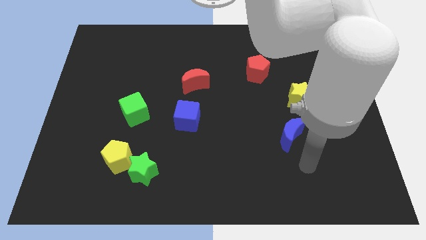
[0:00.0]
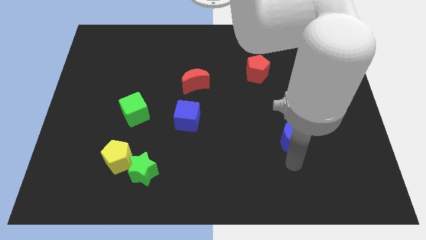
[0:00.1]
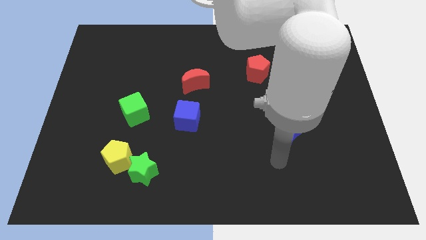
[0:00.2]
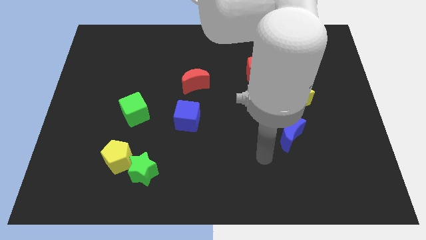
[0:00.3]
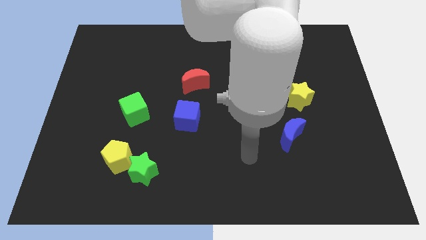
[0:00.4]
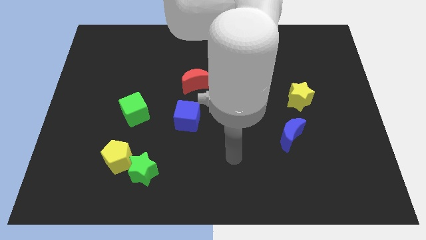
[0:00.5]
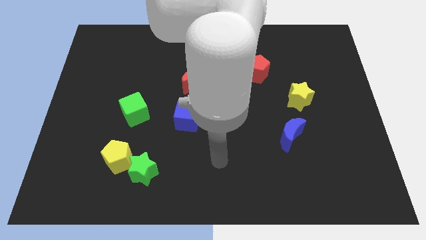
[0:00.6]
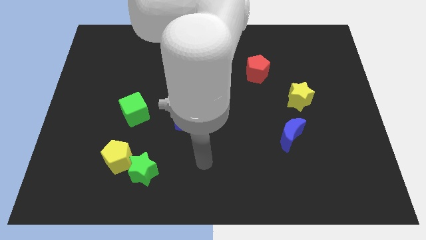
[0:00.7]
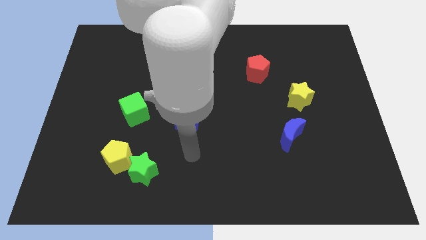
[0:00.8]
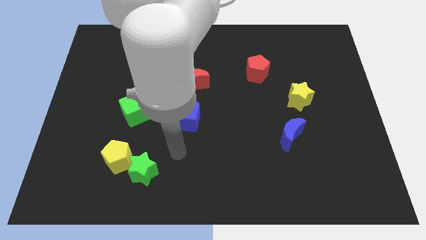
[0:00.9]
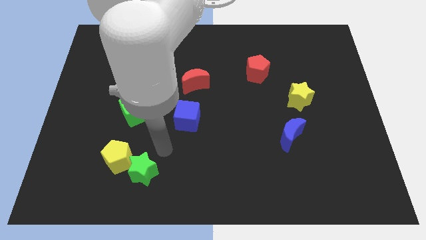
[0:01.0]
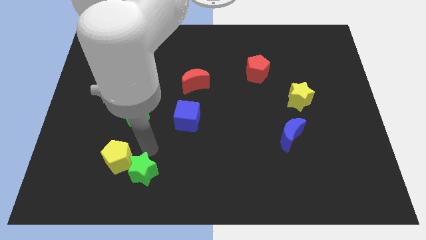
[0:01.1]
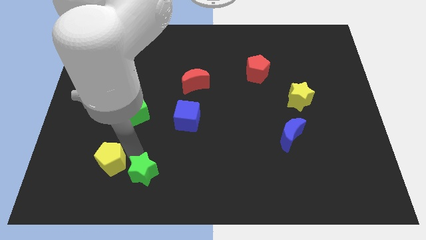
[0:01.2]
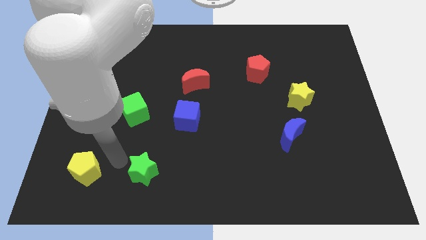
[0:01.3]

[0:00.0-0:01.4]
separate the green star from the yellow pentagon

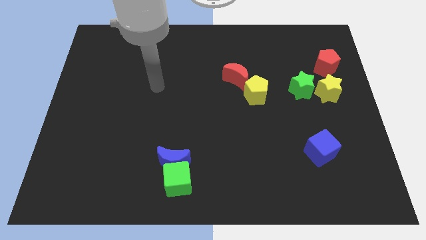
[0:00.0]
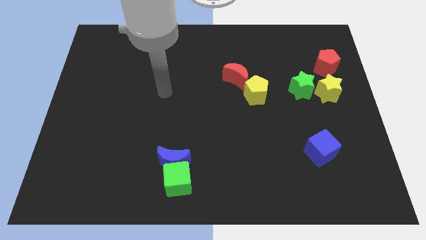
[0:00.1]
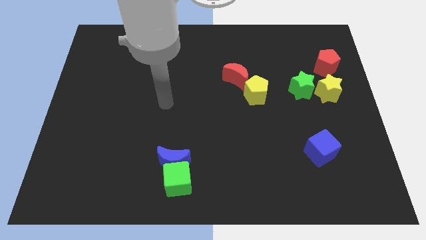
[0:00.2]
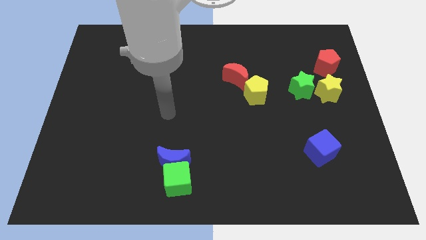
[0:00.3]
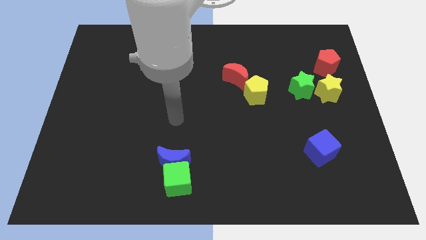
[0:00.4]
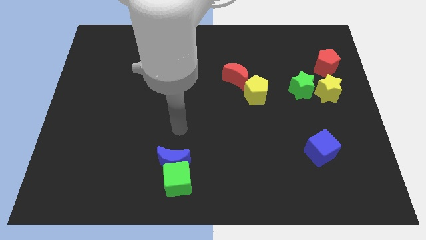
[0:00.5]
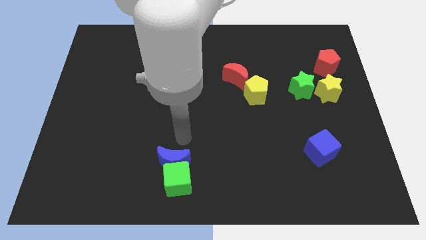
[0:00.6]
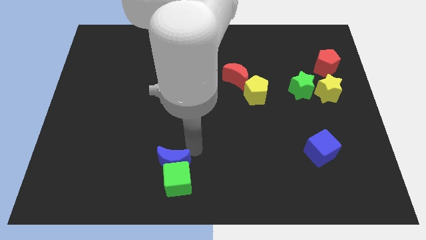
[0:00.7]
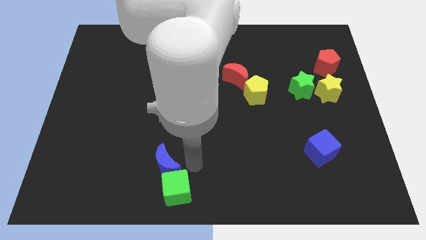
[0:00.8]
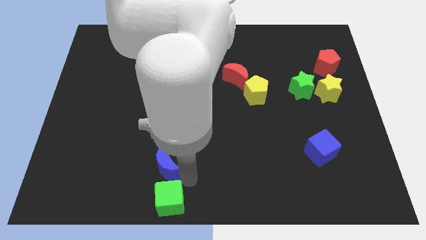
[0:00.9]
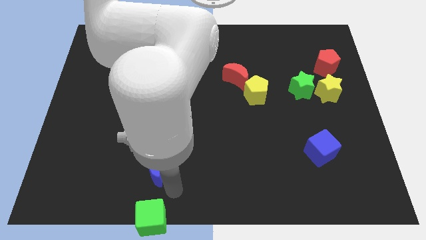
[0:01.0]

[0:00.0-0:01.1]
separate the blue moon from the green cube

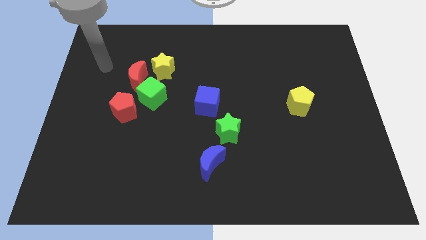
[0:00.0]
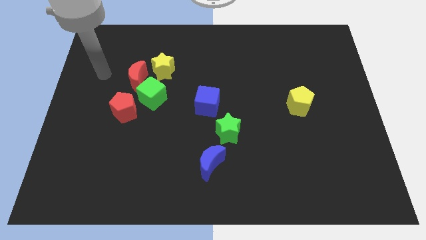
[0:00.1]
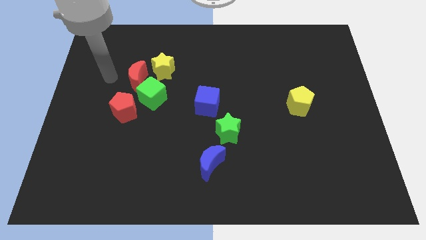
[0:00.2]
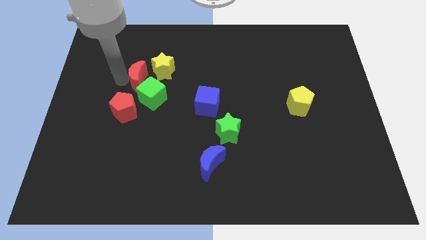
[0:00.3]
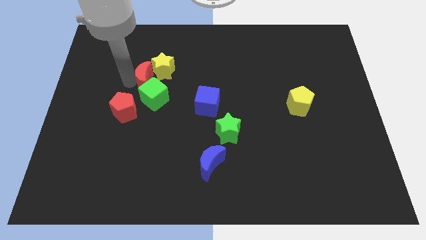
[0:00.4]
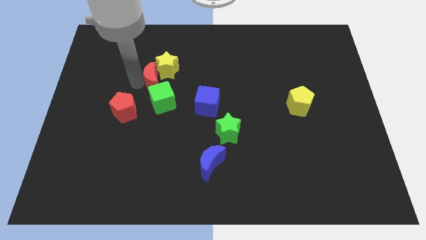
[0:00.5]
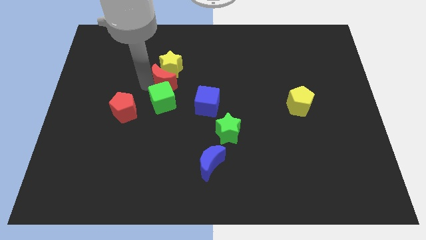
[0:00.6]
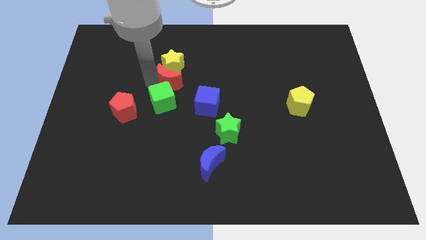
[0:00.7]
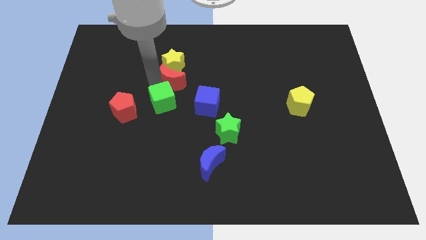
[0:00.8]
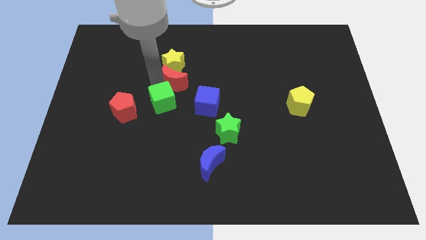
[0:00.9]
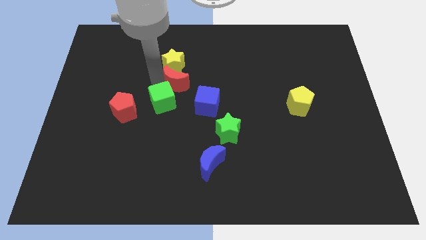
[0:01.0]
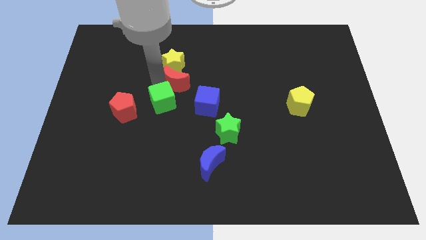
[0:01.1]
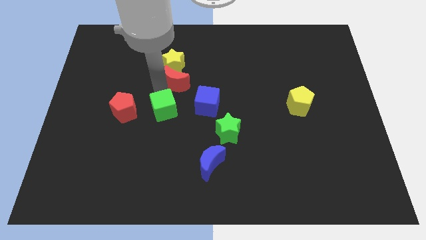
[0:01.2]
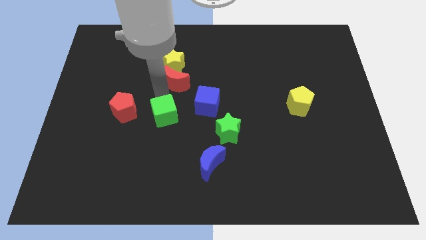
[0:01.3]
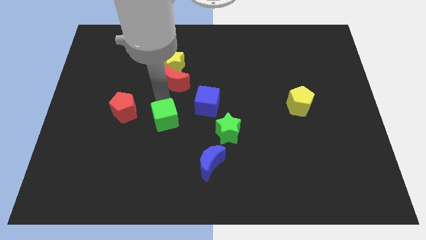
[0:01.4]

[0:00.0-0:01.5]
move the green cube away from the clump

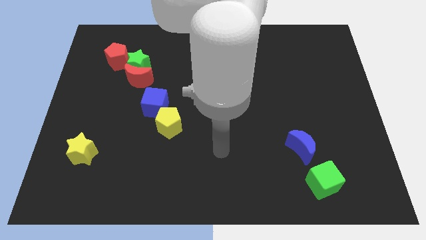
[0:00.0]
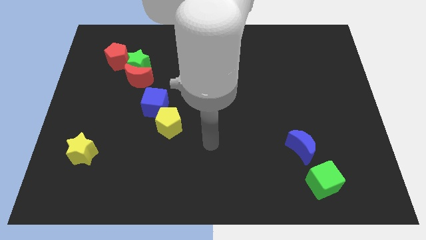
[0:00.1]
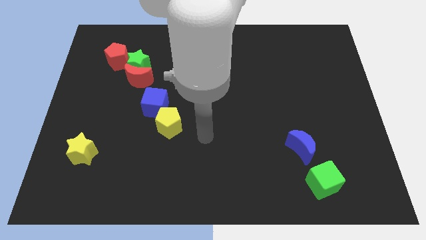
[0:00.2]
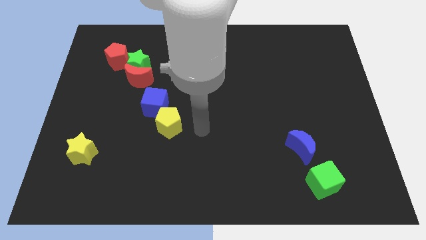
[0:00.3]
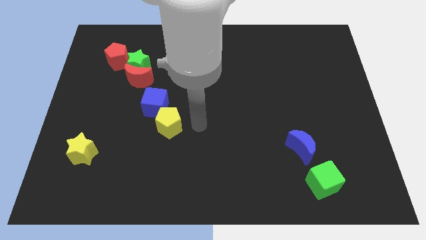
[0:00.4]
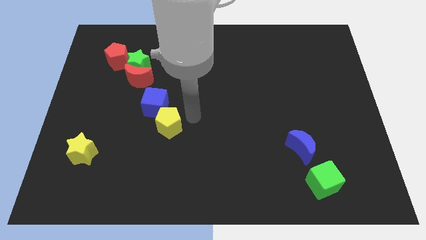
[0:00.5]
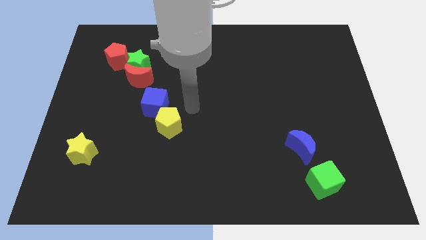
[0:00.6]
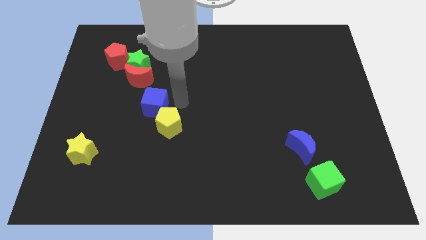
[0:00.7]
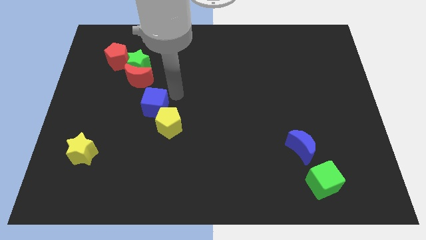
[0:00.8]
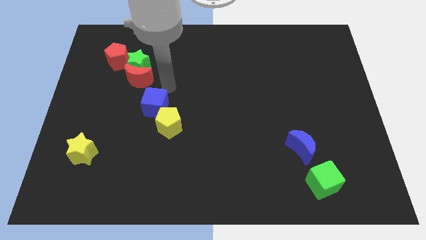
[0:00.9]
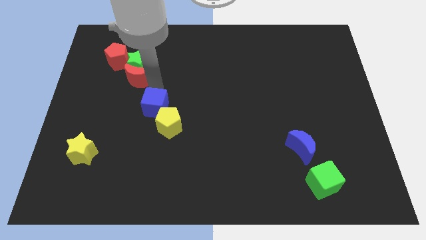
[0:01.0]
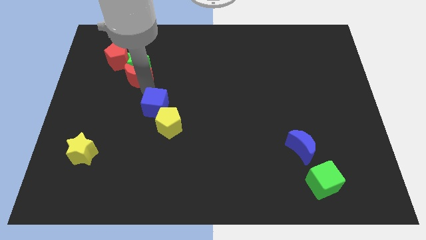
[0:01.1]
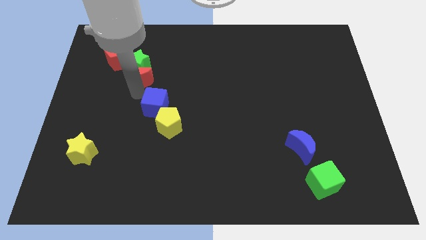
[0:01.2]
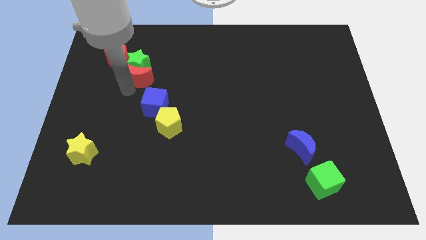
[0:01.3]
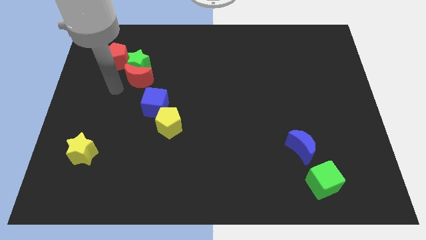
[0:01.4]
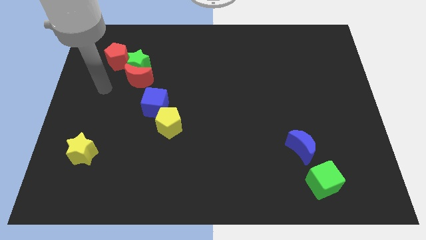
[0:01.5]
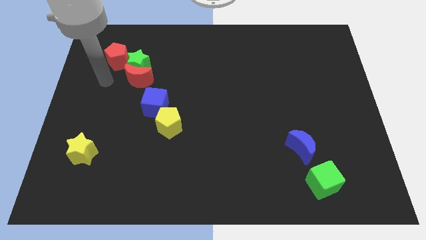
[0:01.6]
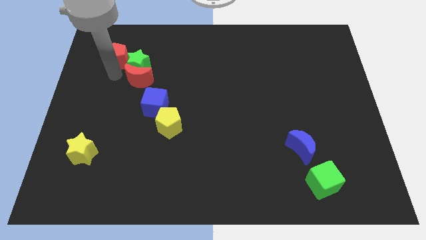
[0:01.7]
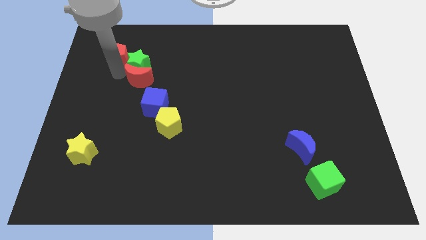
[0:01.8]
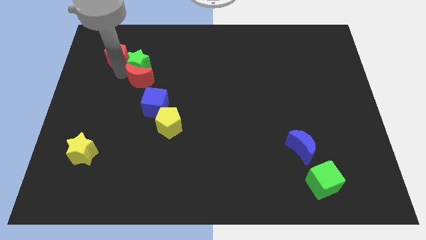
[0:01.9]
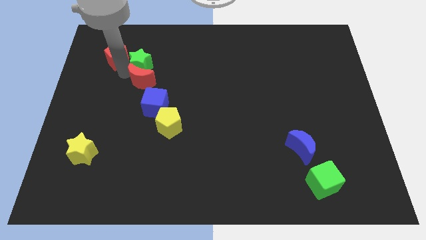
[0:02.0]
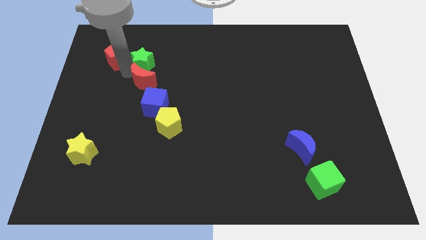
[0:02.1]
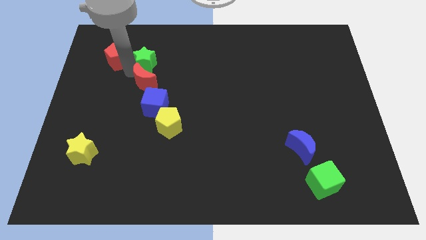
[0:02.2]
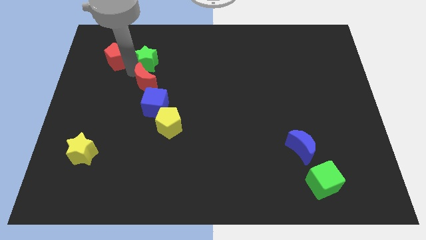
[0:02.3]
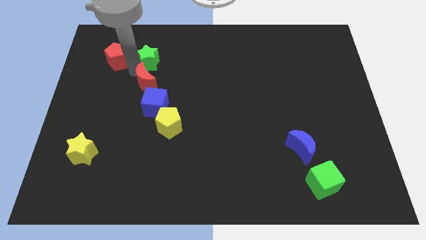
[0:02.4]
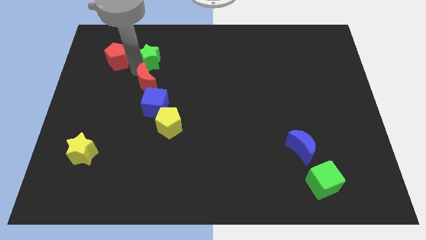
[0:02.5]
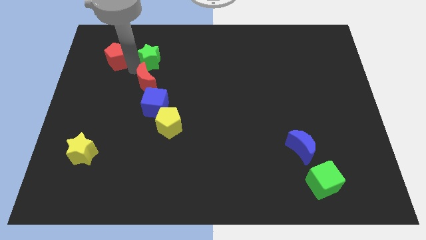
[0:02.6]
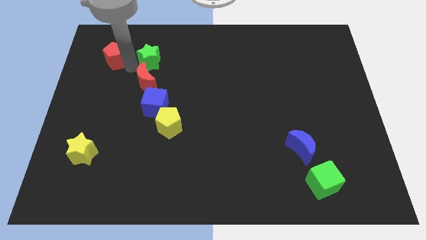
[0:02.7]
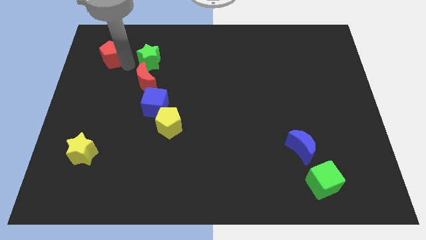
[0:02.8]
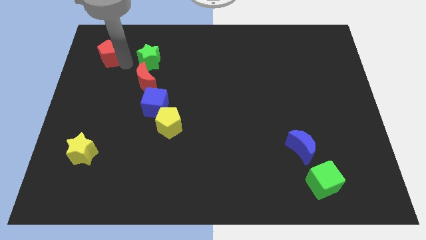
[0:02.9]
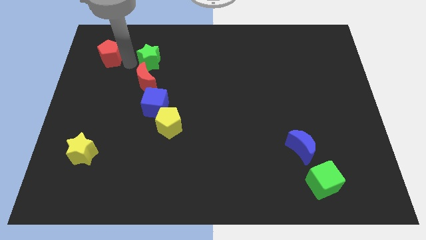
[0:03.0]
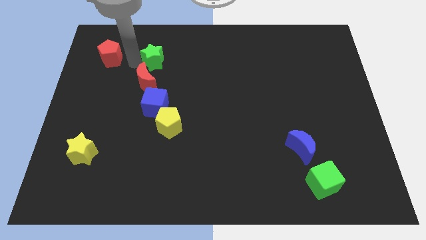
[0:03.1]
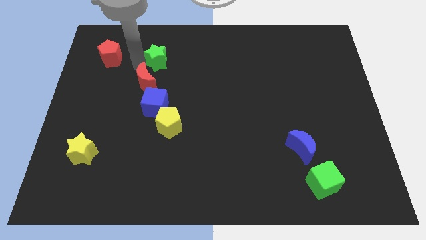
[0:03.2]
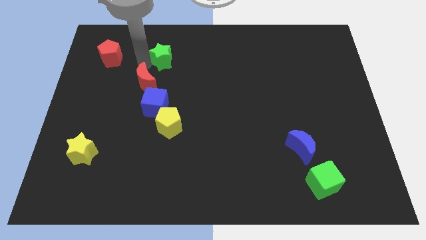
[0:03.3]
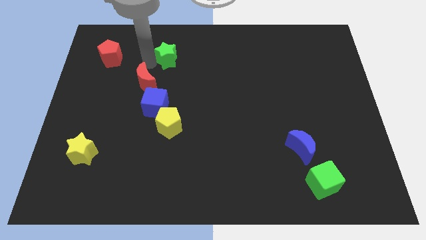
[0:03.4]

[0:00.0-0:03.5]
separate the green star from the red moon and red pentagon

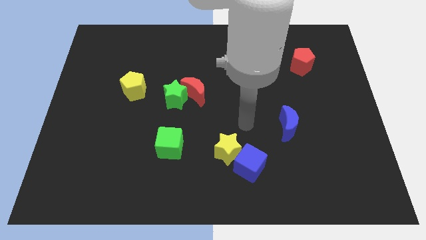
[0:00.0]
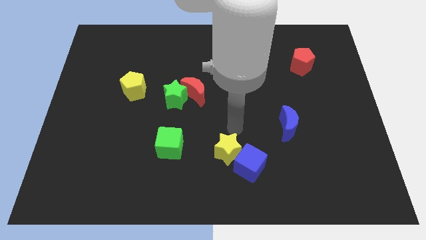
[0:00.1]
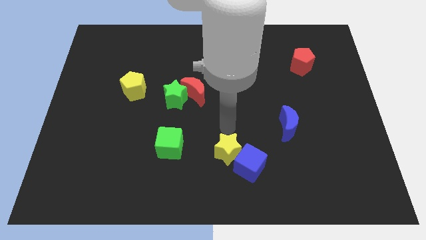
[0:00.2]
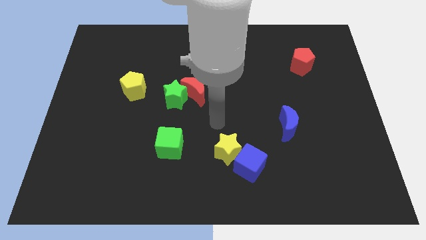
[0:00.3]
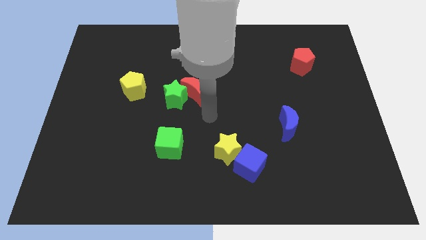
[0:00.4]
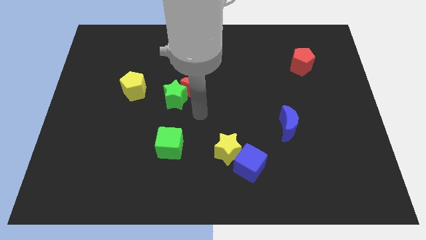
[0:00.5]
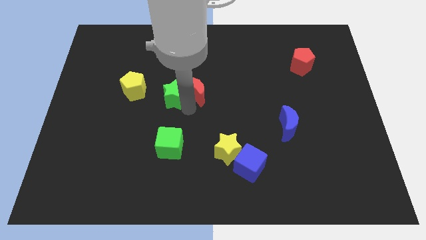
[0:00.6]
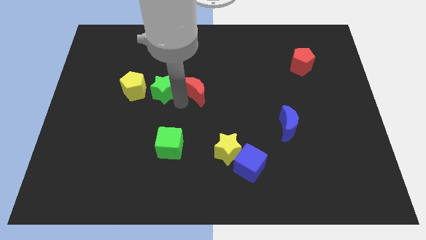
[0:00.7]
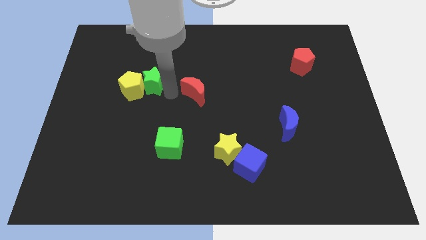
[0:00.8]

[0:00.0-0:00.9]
pull the red moon apart from the green star

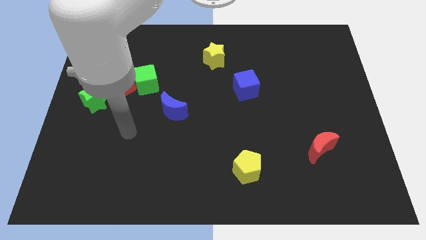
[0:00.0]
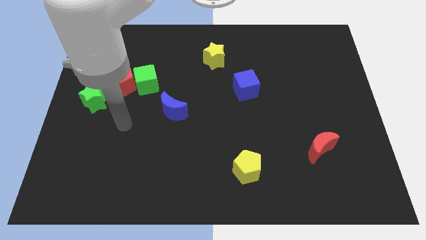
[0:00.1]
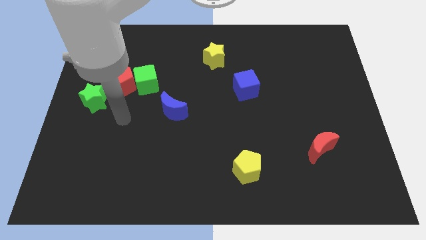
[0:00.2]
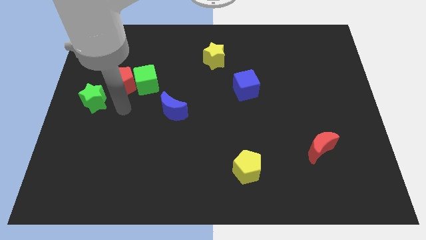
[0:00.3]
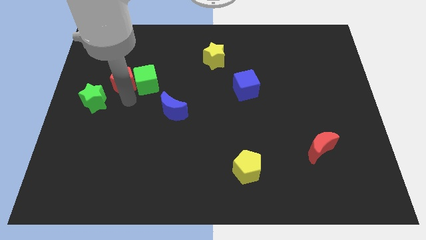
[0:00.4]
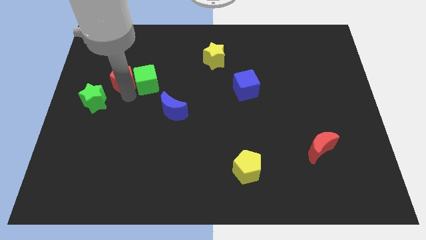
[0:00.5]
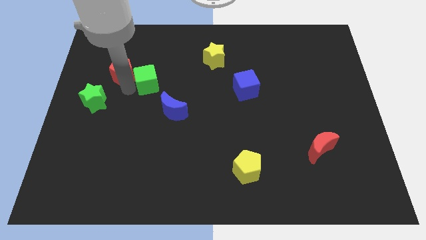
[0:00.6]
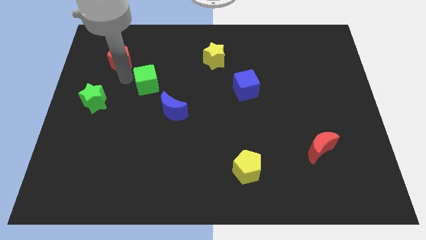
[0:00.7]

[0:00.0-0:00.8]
pull the green cube apart from the red pentagon

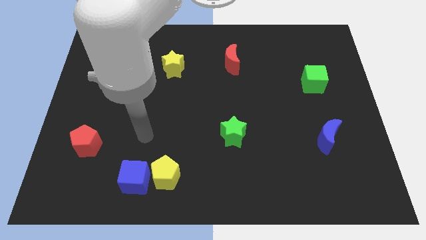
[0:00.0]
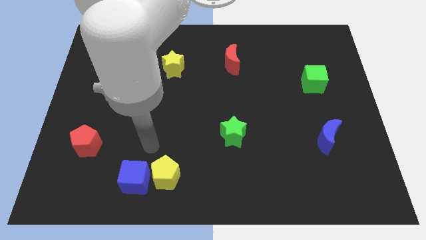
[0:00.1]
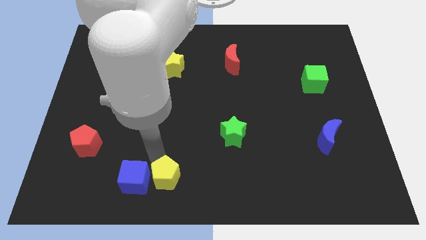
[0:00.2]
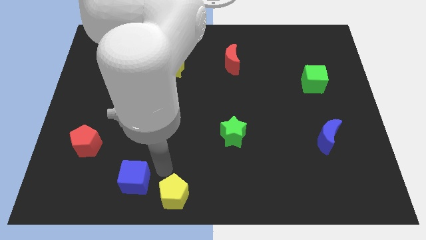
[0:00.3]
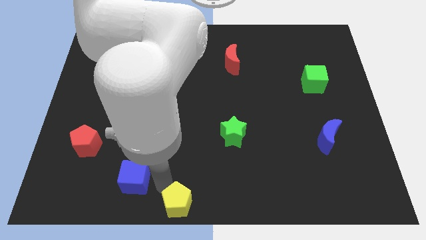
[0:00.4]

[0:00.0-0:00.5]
separate the blue cube from the yellow pentagon
